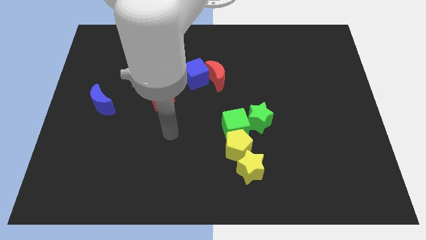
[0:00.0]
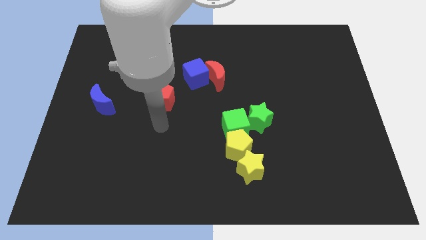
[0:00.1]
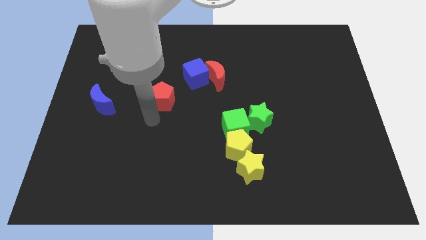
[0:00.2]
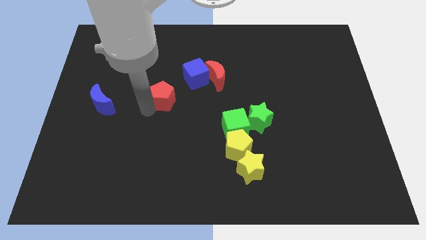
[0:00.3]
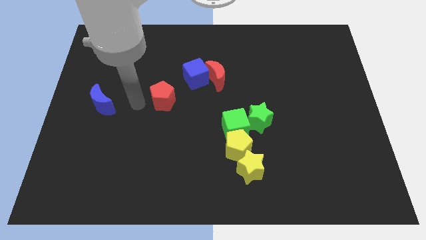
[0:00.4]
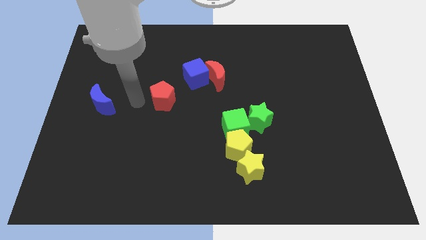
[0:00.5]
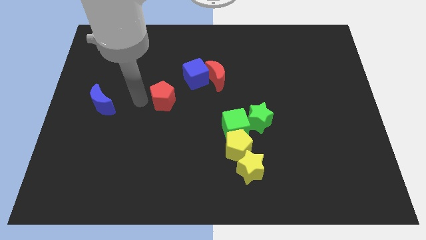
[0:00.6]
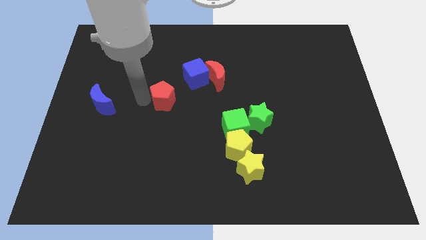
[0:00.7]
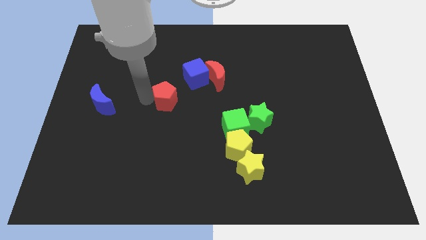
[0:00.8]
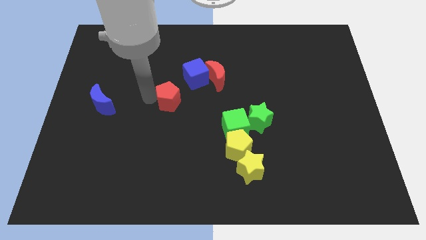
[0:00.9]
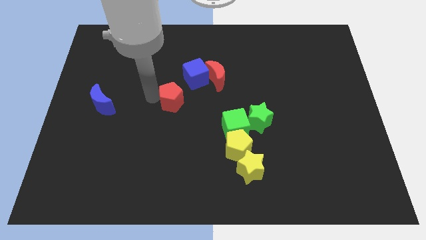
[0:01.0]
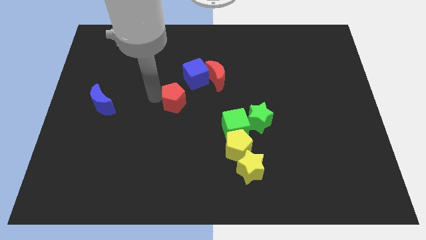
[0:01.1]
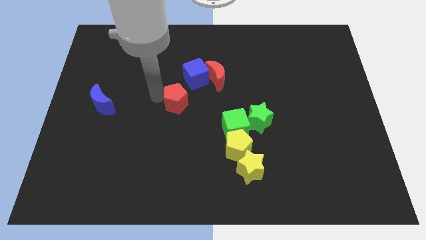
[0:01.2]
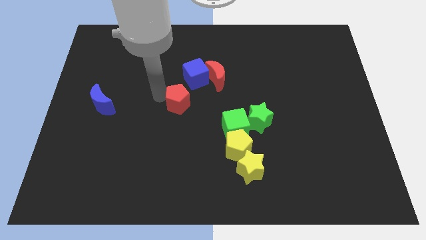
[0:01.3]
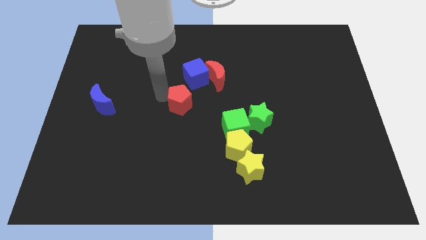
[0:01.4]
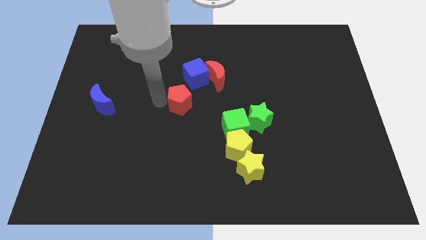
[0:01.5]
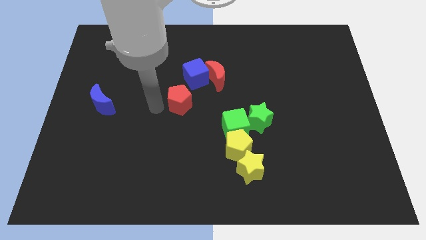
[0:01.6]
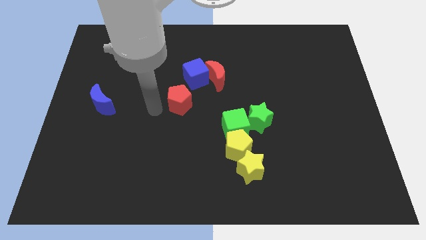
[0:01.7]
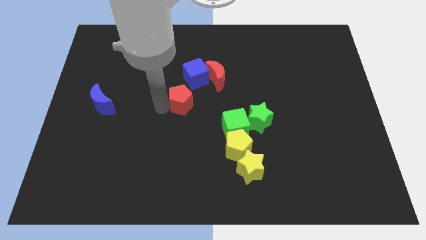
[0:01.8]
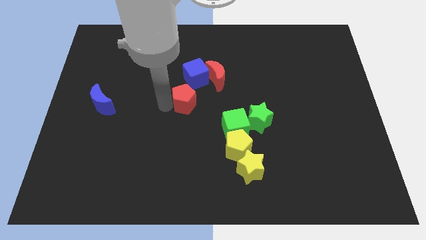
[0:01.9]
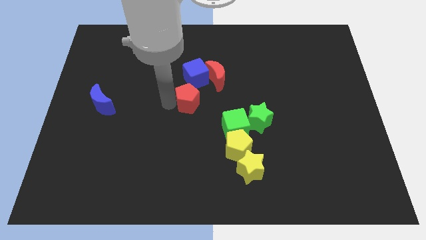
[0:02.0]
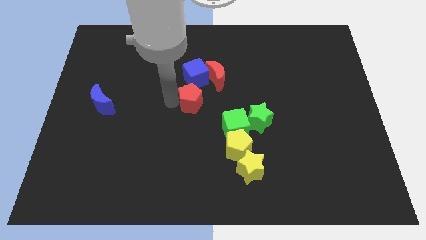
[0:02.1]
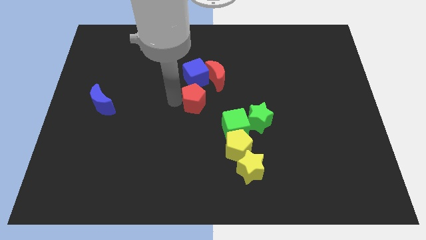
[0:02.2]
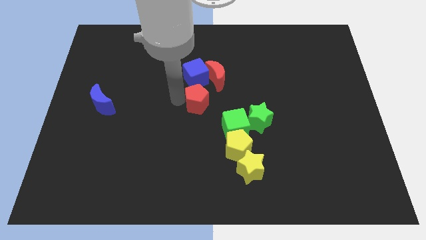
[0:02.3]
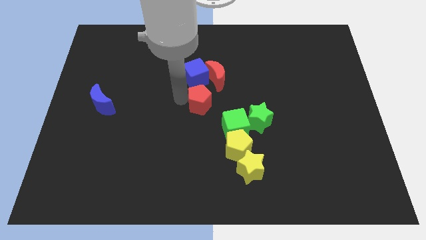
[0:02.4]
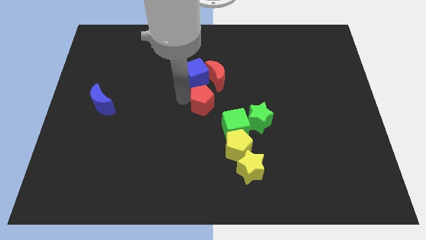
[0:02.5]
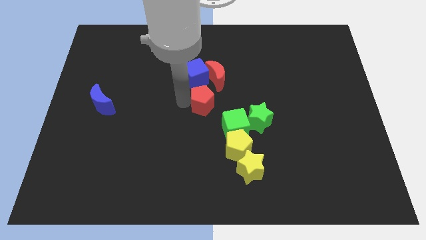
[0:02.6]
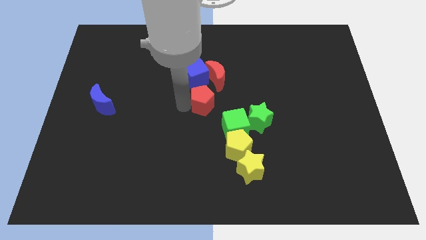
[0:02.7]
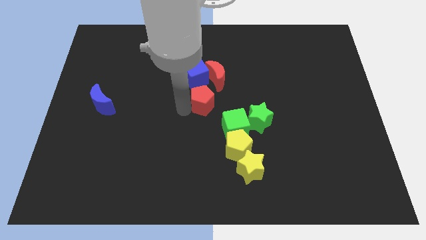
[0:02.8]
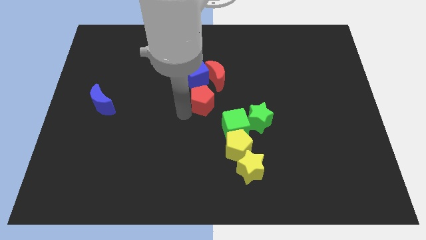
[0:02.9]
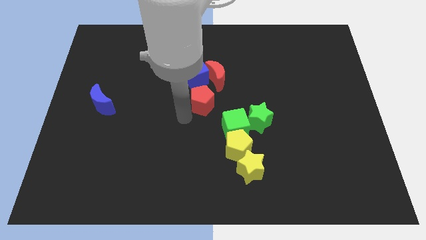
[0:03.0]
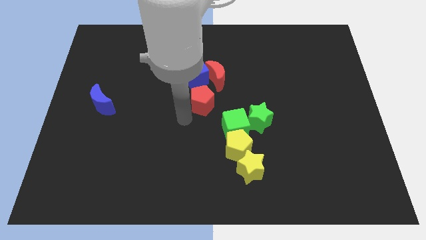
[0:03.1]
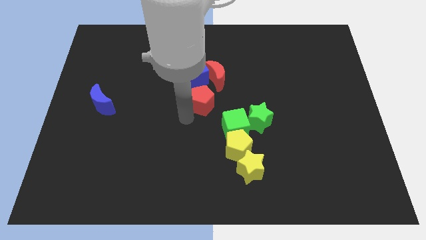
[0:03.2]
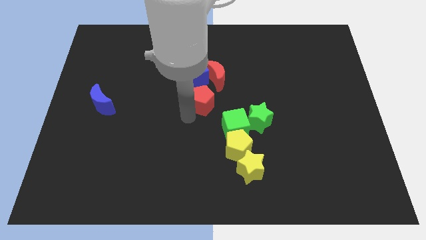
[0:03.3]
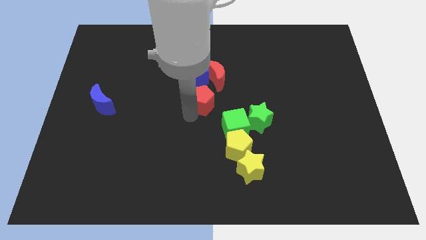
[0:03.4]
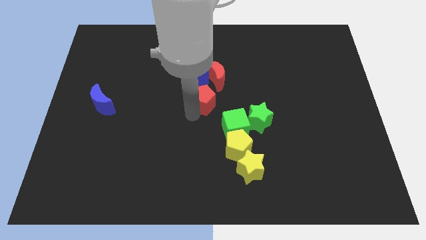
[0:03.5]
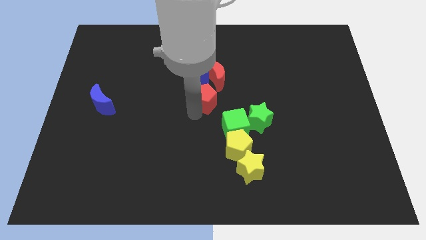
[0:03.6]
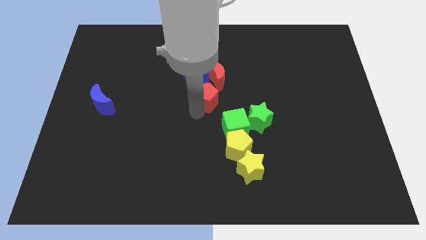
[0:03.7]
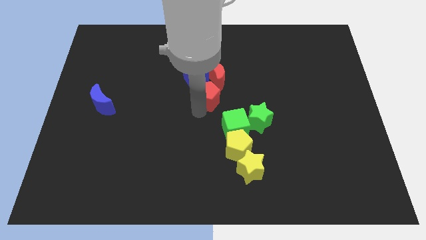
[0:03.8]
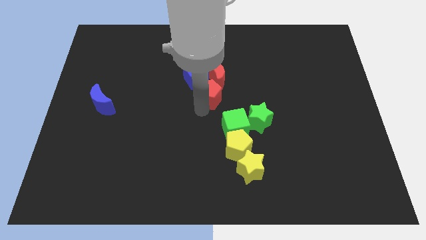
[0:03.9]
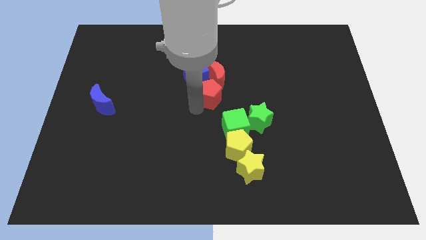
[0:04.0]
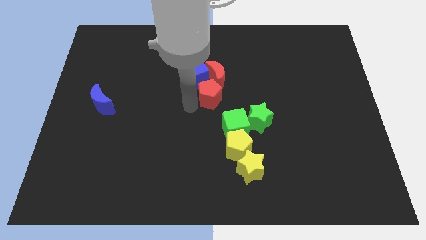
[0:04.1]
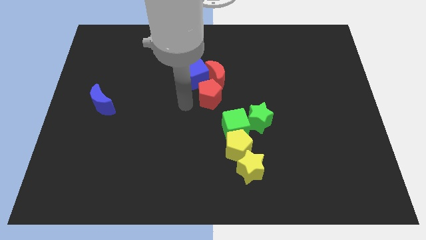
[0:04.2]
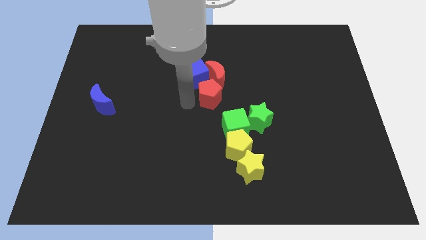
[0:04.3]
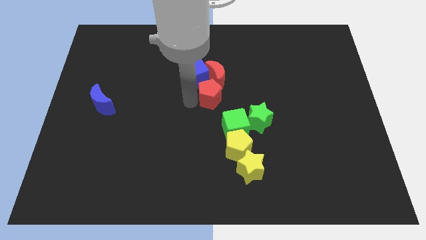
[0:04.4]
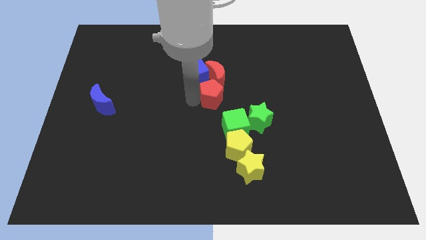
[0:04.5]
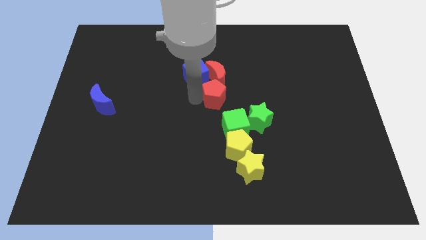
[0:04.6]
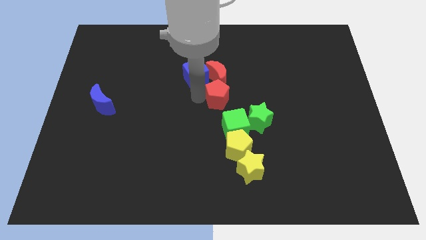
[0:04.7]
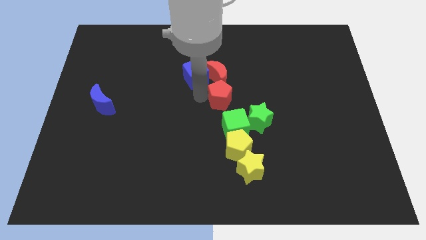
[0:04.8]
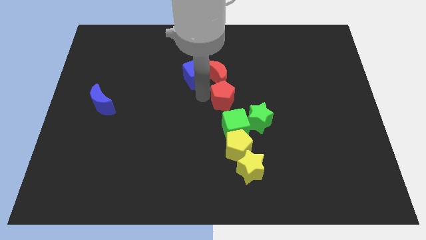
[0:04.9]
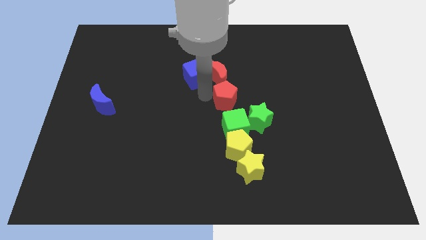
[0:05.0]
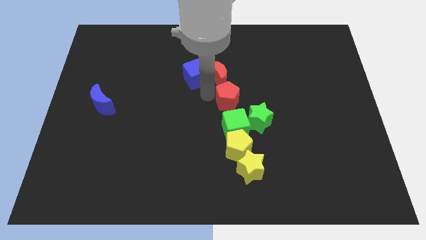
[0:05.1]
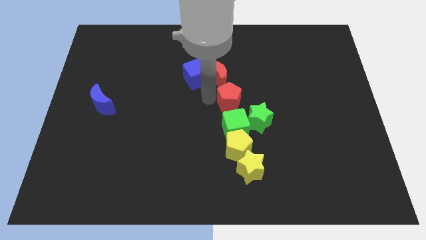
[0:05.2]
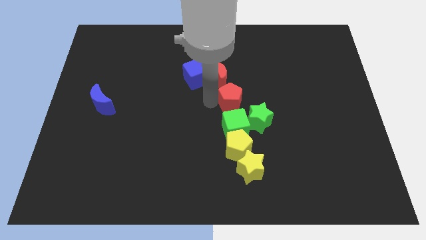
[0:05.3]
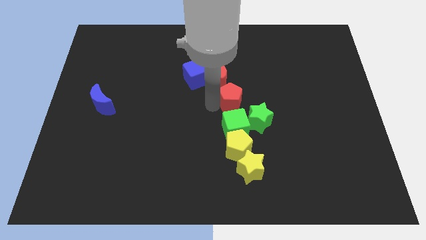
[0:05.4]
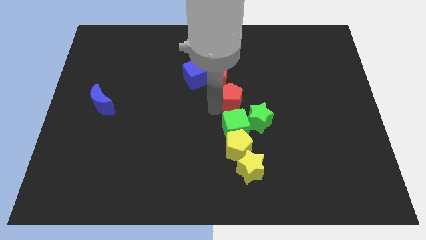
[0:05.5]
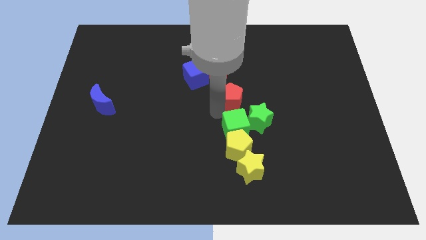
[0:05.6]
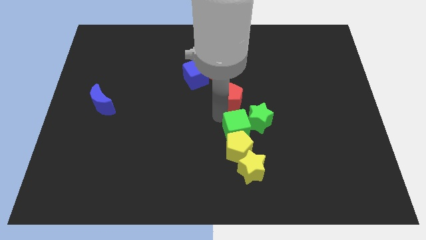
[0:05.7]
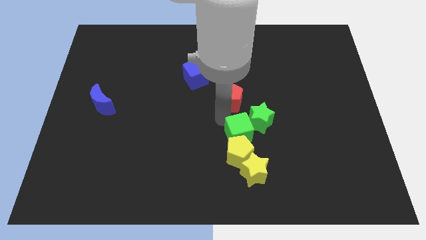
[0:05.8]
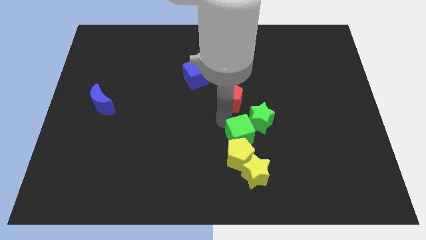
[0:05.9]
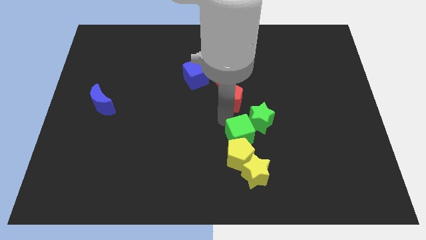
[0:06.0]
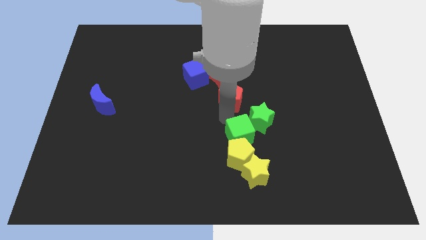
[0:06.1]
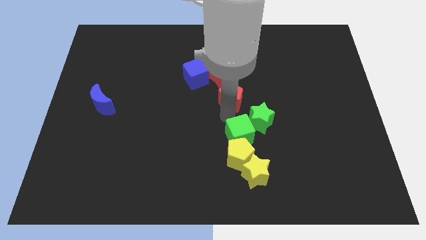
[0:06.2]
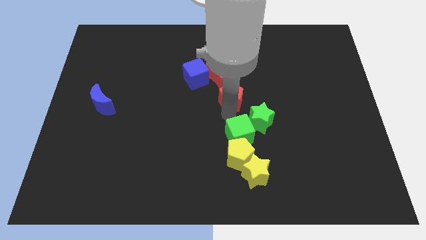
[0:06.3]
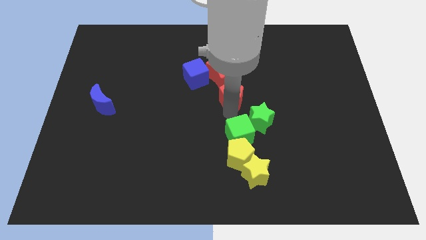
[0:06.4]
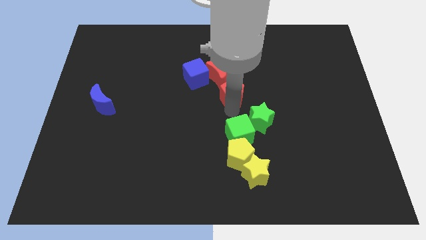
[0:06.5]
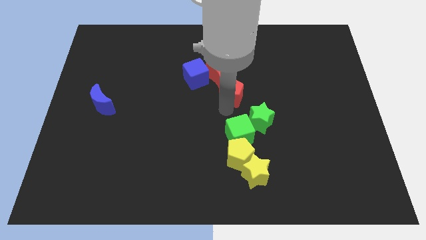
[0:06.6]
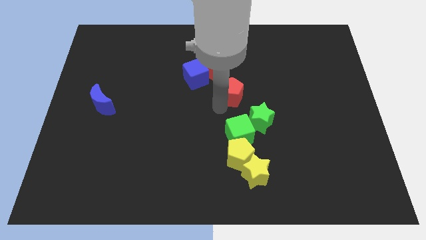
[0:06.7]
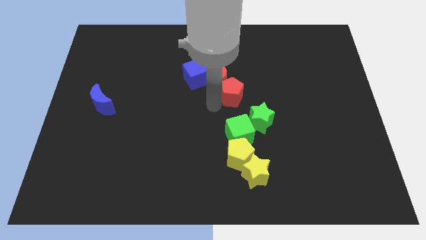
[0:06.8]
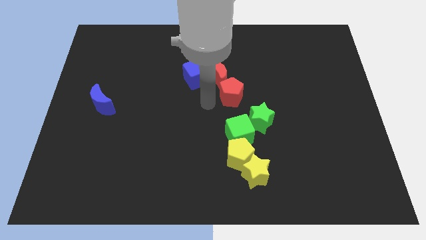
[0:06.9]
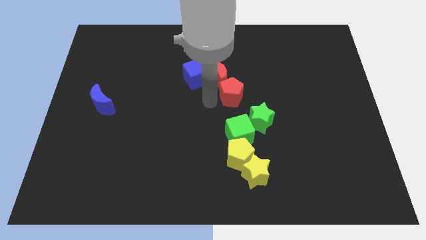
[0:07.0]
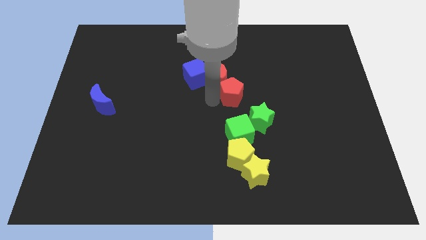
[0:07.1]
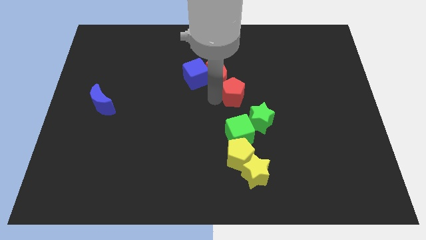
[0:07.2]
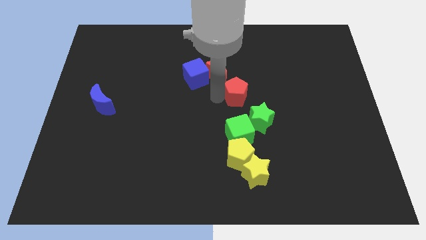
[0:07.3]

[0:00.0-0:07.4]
push the red pentagon to the top side of the green star
